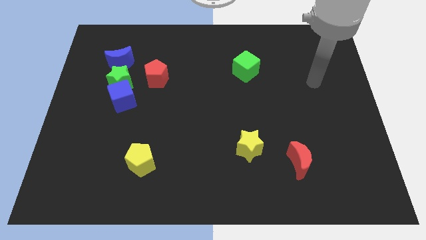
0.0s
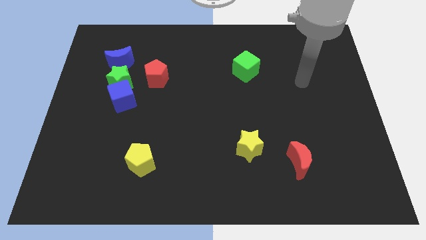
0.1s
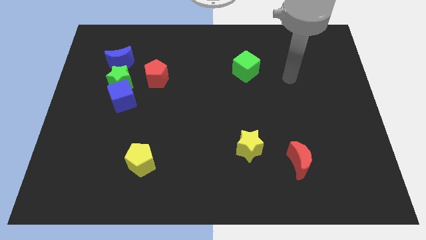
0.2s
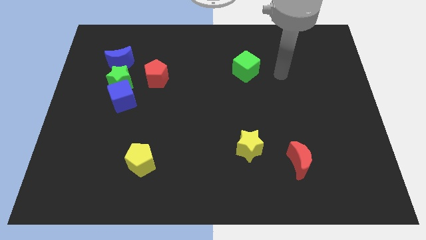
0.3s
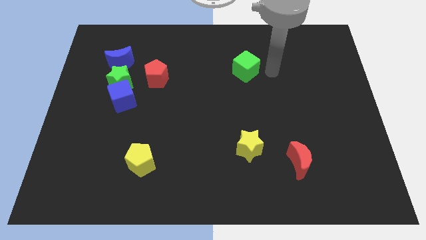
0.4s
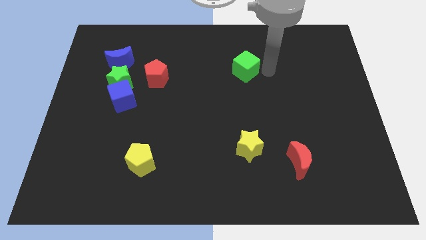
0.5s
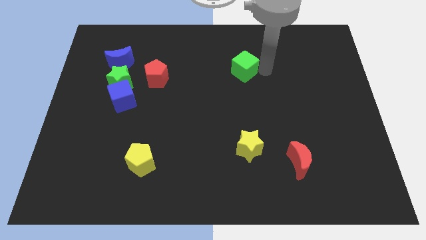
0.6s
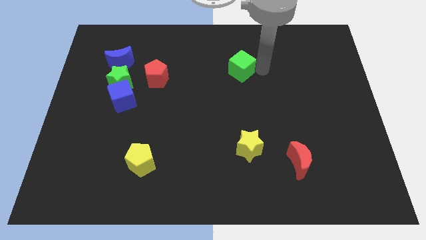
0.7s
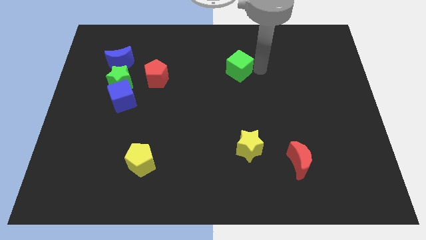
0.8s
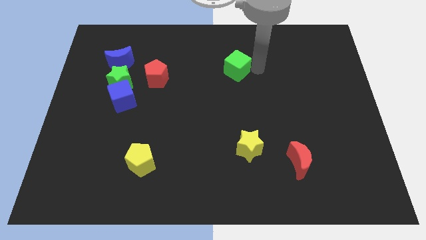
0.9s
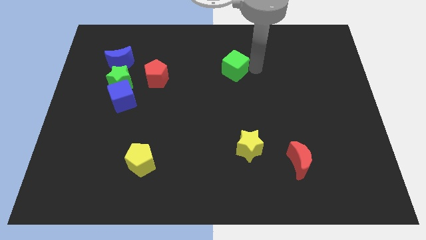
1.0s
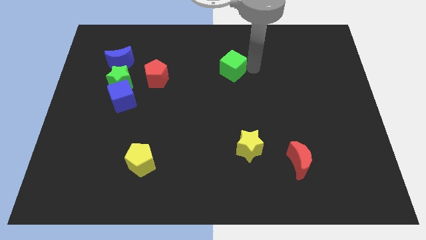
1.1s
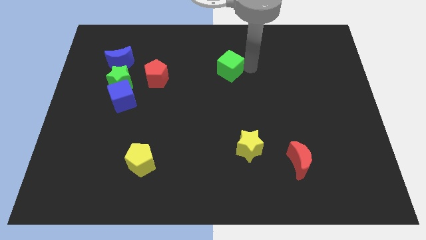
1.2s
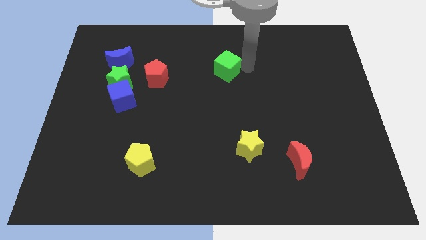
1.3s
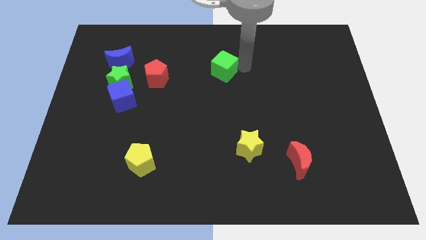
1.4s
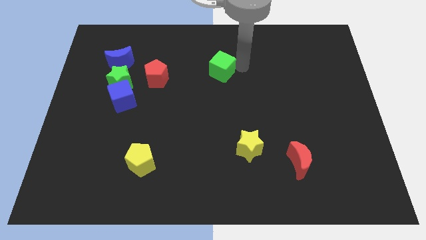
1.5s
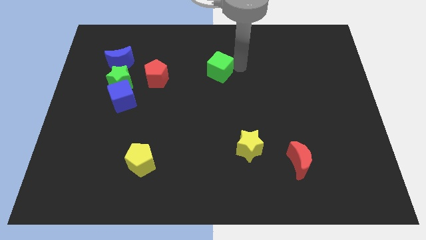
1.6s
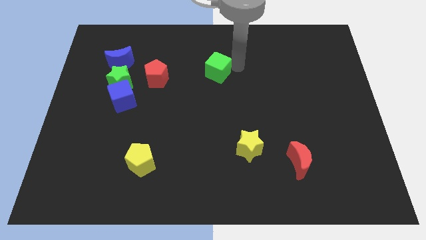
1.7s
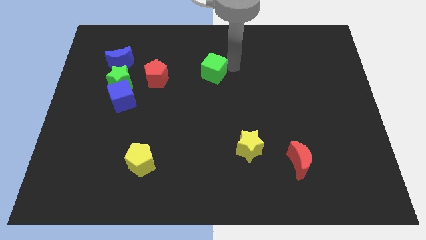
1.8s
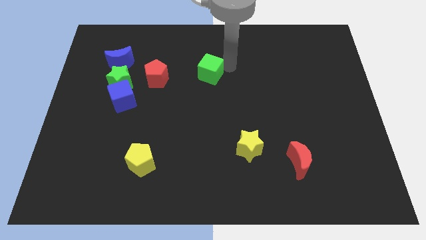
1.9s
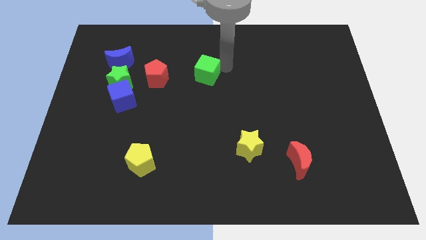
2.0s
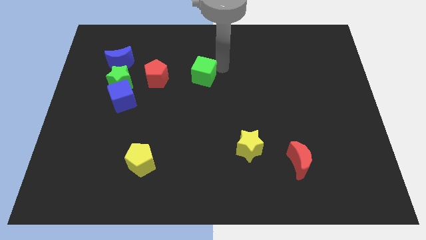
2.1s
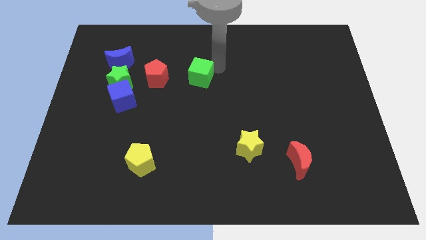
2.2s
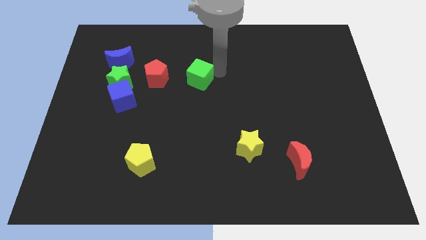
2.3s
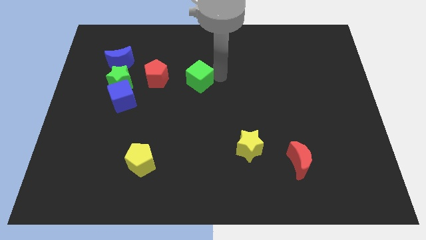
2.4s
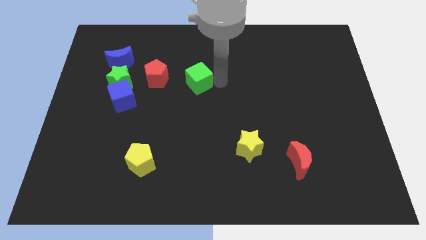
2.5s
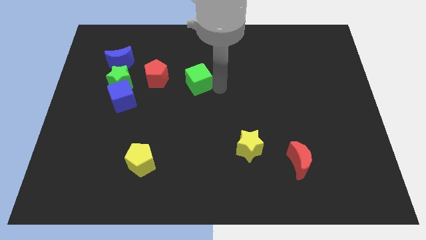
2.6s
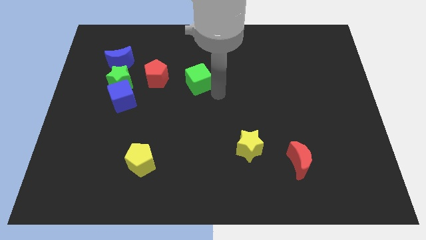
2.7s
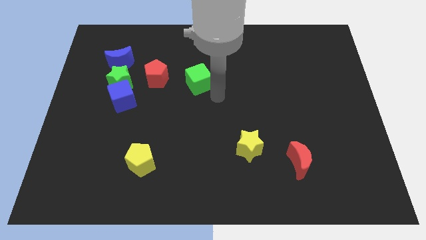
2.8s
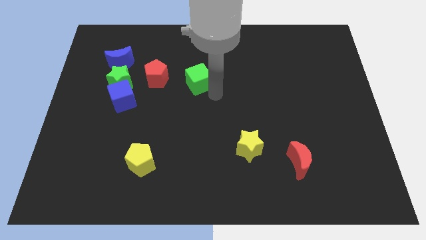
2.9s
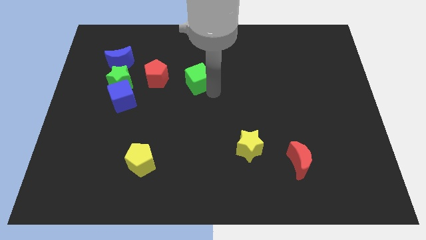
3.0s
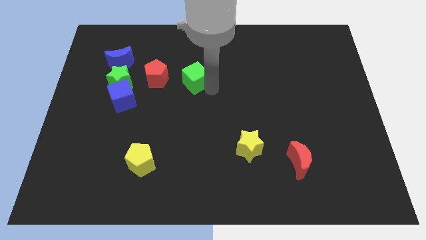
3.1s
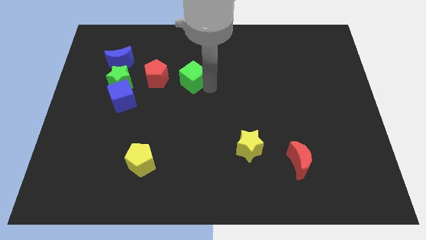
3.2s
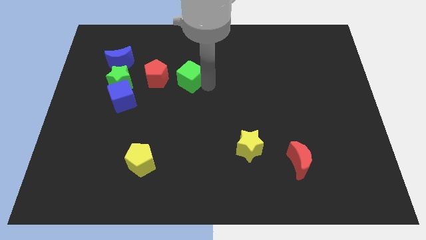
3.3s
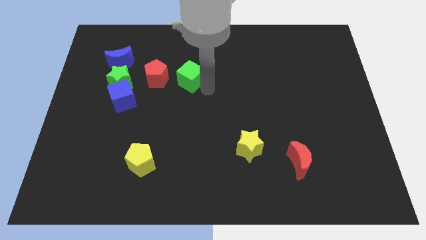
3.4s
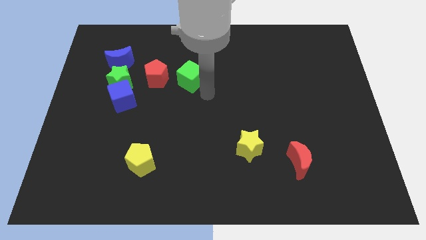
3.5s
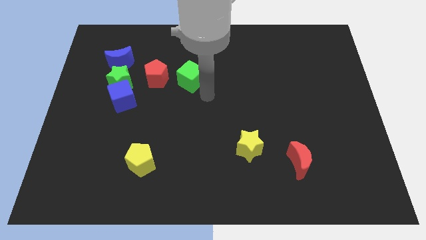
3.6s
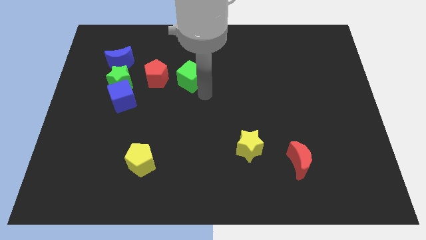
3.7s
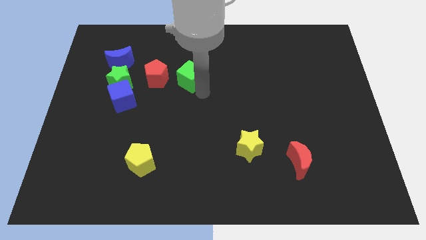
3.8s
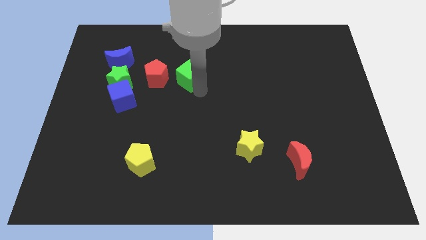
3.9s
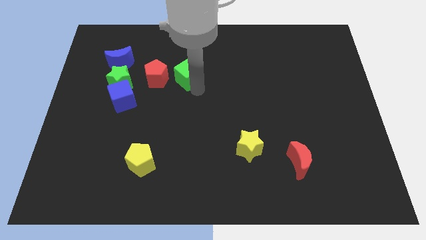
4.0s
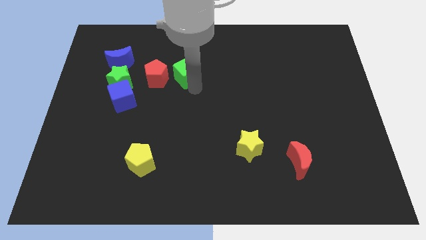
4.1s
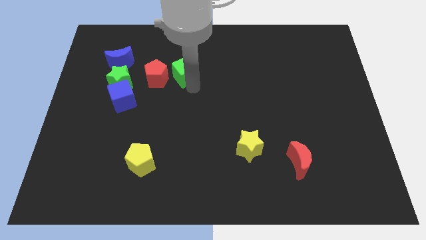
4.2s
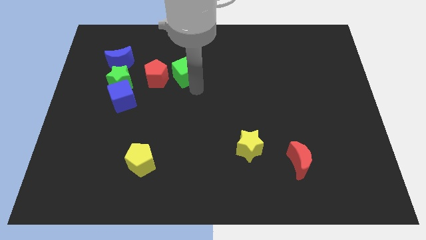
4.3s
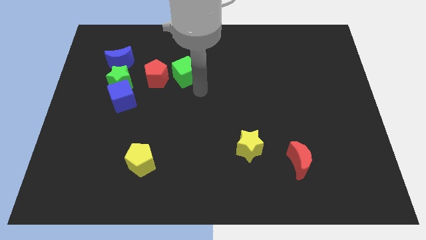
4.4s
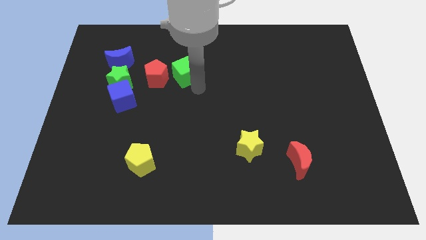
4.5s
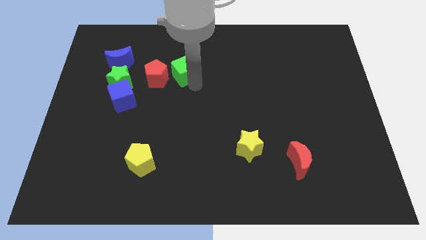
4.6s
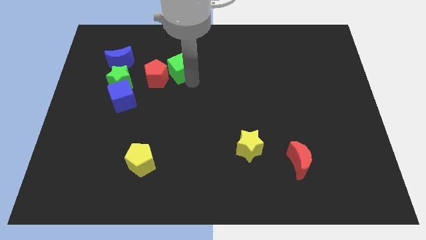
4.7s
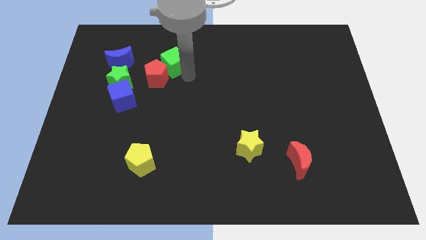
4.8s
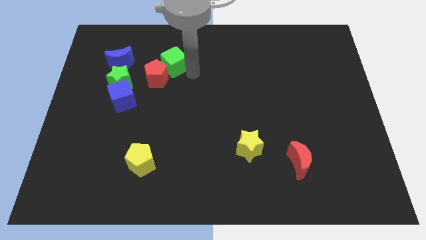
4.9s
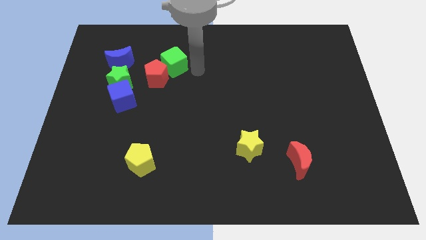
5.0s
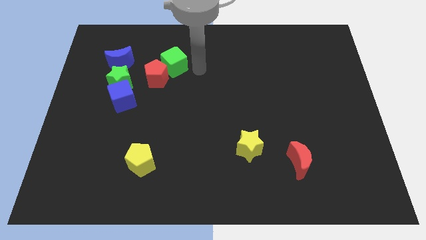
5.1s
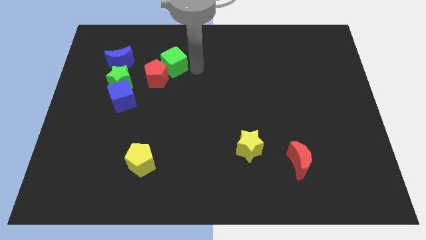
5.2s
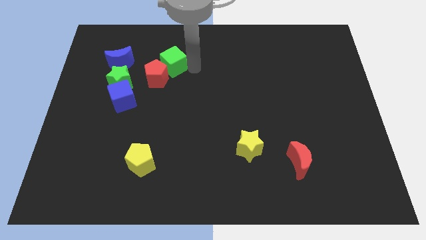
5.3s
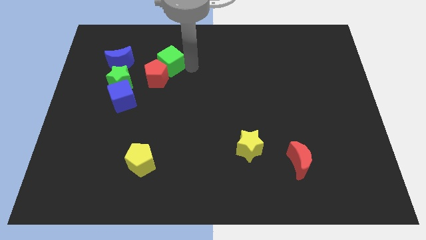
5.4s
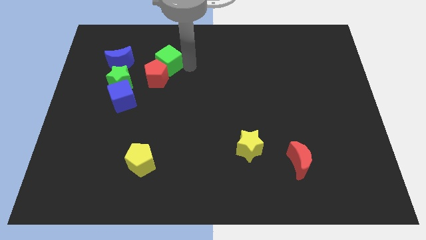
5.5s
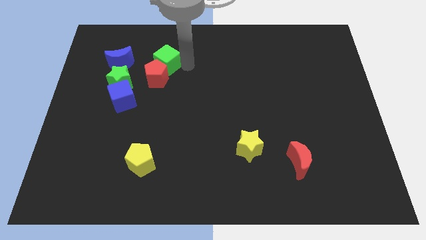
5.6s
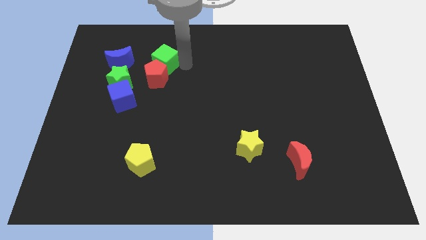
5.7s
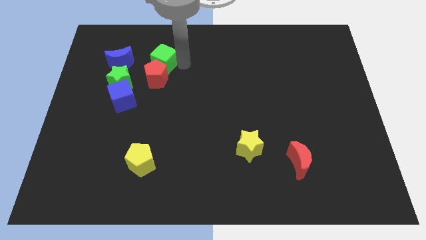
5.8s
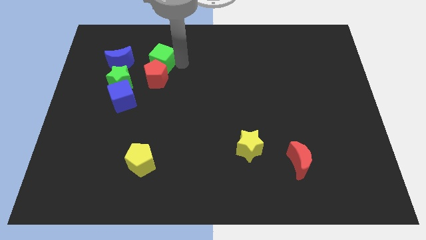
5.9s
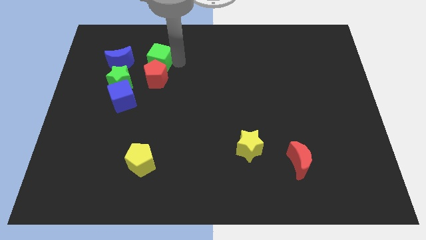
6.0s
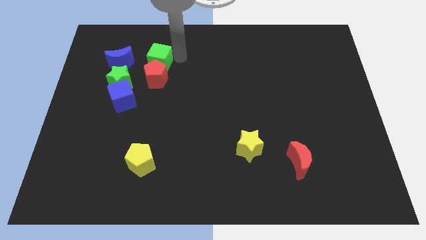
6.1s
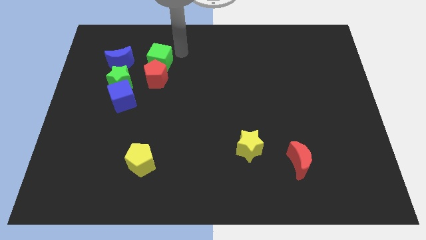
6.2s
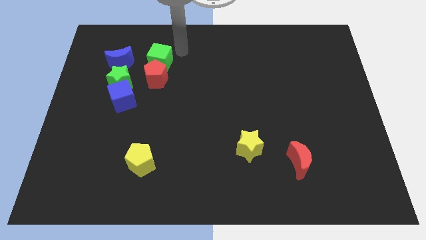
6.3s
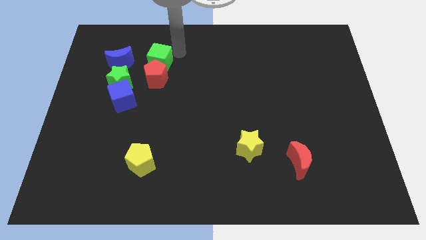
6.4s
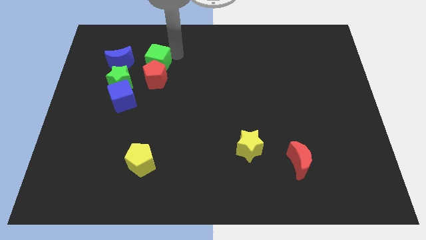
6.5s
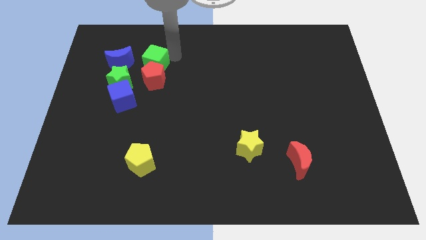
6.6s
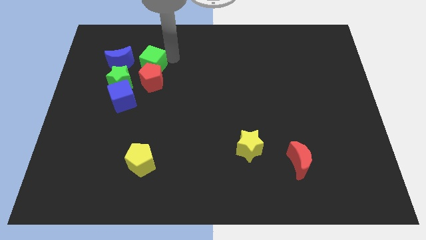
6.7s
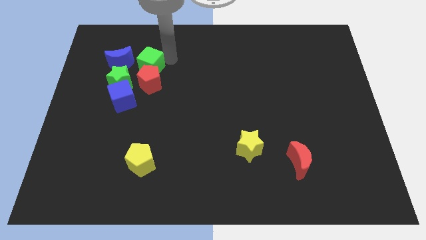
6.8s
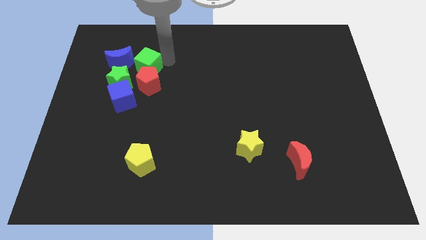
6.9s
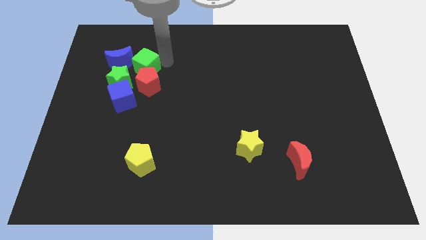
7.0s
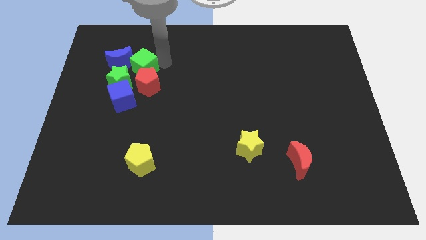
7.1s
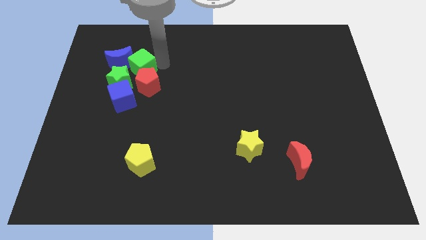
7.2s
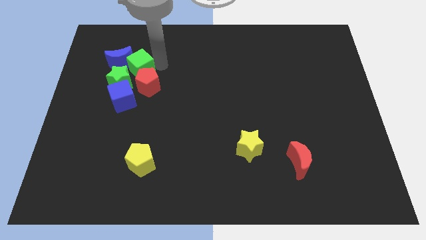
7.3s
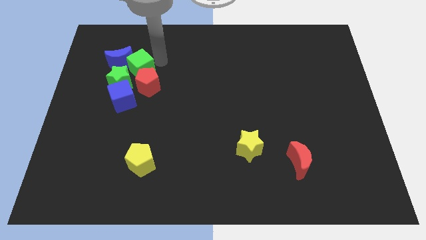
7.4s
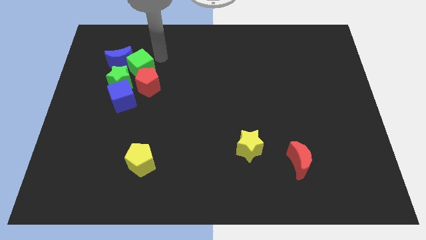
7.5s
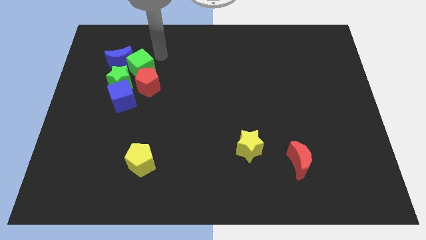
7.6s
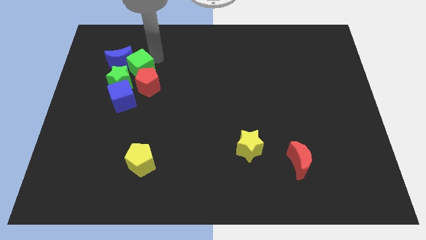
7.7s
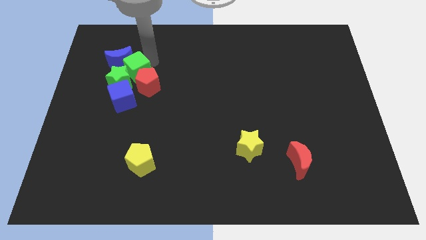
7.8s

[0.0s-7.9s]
move the green cube towards the green star
